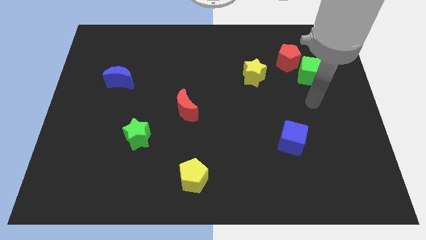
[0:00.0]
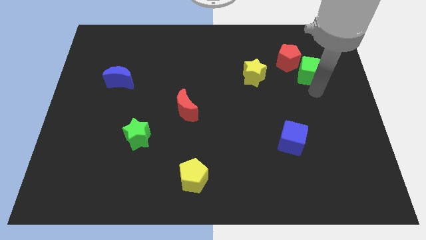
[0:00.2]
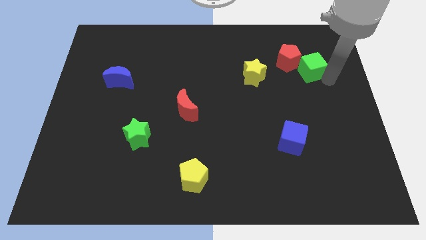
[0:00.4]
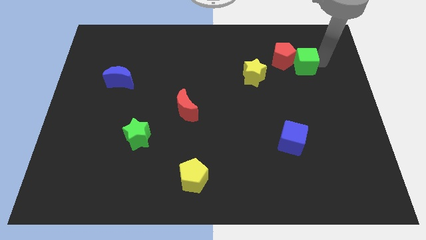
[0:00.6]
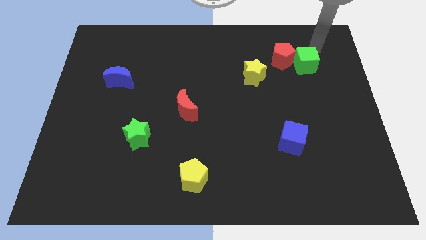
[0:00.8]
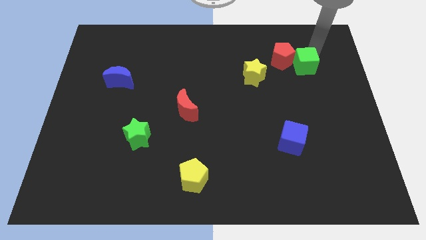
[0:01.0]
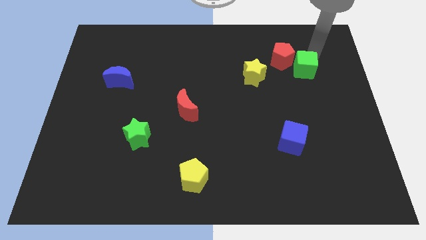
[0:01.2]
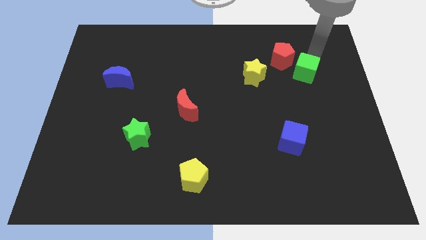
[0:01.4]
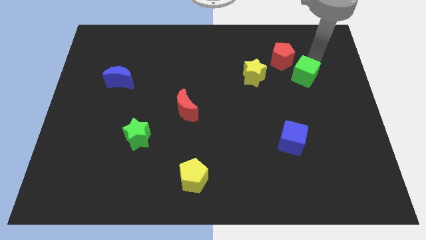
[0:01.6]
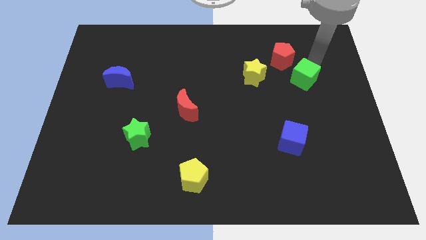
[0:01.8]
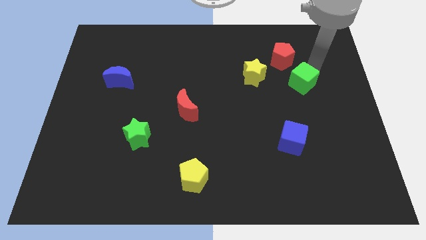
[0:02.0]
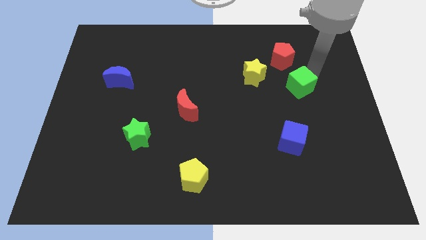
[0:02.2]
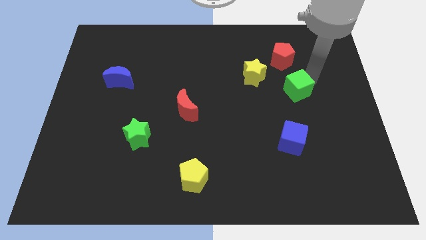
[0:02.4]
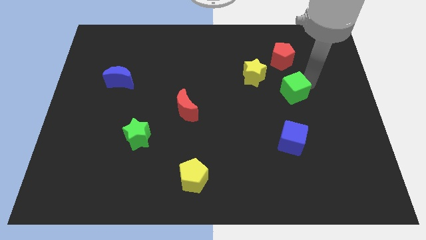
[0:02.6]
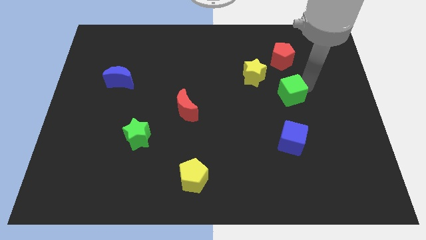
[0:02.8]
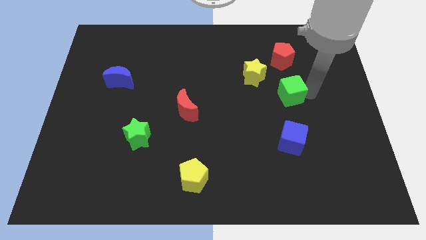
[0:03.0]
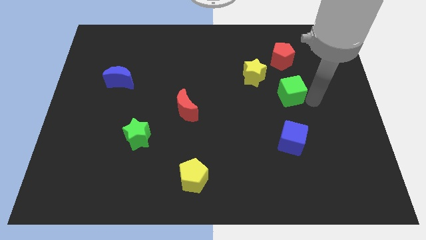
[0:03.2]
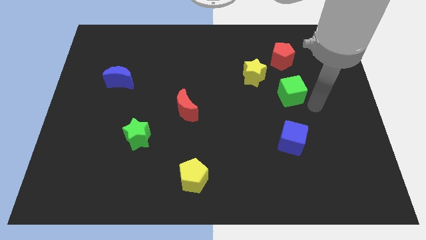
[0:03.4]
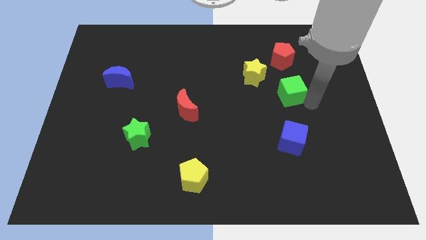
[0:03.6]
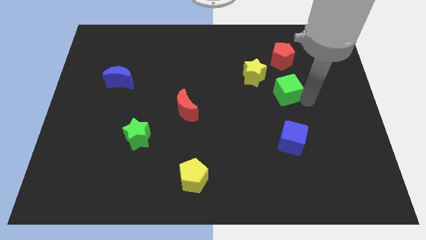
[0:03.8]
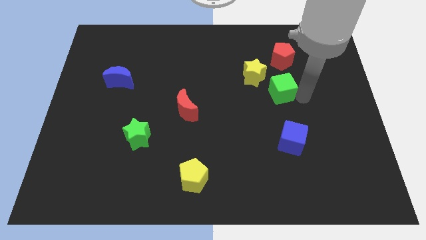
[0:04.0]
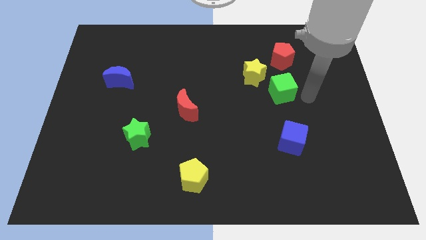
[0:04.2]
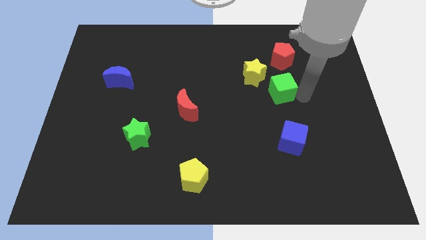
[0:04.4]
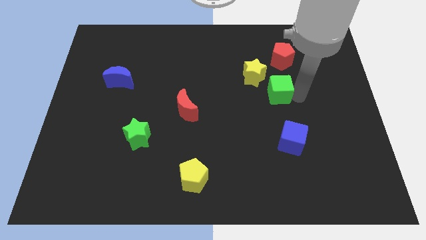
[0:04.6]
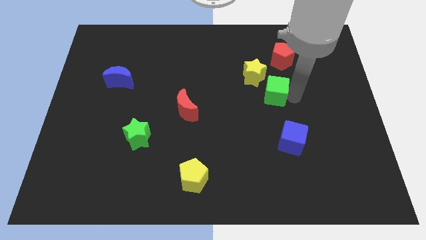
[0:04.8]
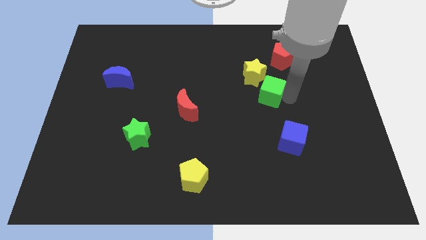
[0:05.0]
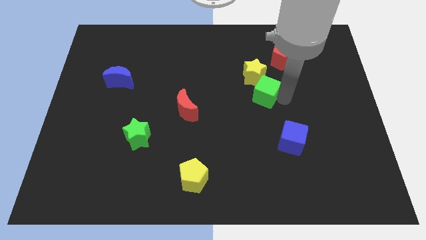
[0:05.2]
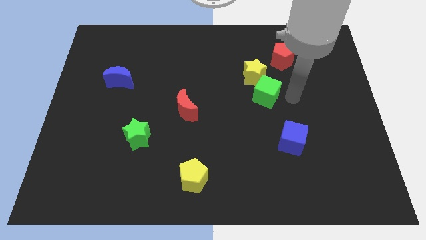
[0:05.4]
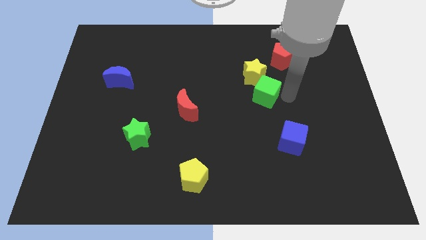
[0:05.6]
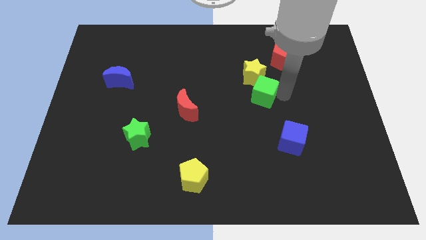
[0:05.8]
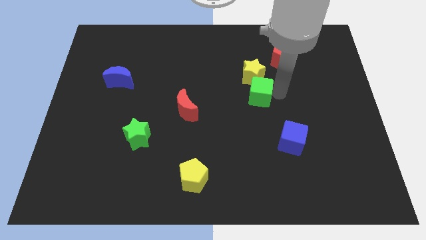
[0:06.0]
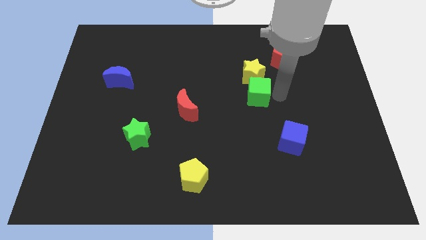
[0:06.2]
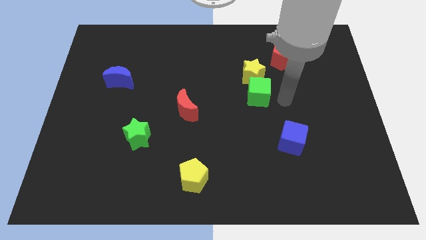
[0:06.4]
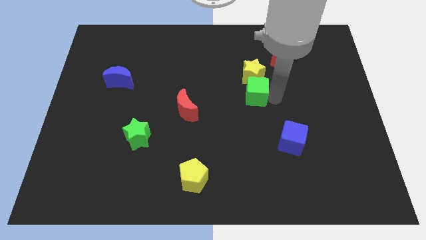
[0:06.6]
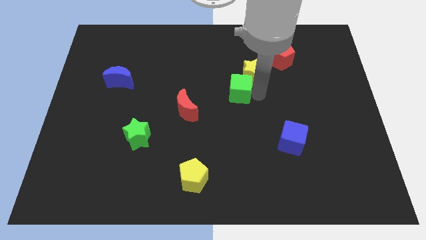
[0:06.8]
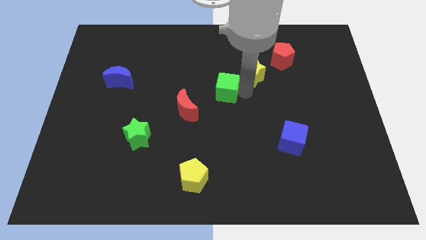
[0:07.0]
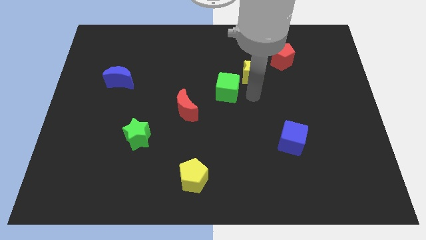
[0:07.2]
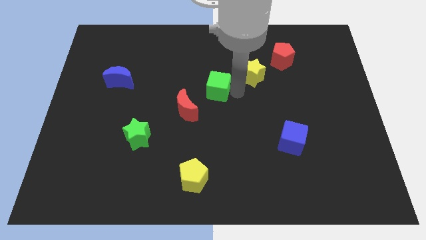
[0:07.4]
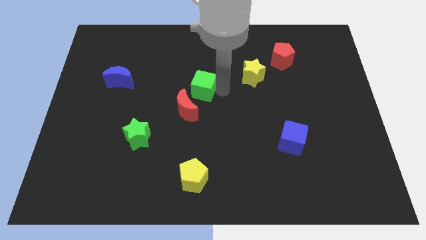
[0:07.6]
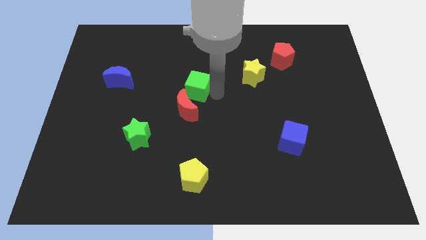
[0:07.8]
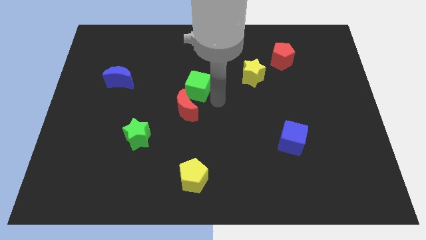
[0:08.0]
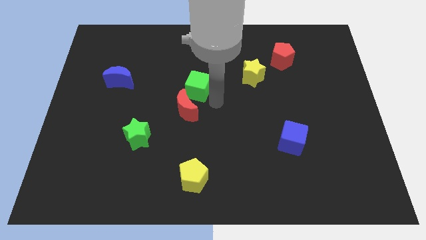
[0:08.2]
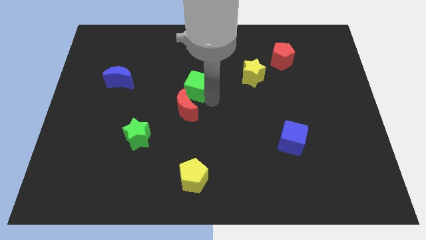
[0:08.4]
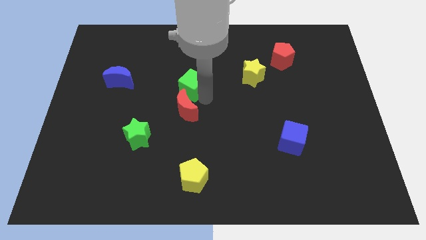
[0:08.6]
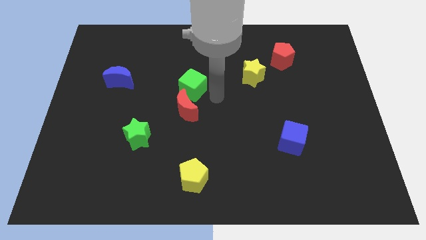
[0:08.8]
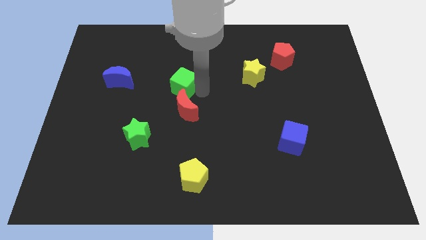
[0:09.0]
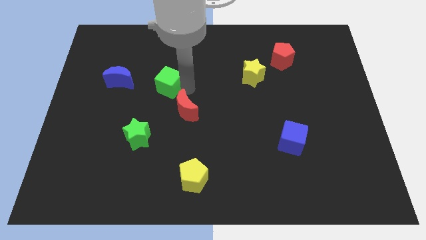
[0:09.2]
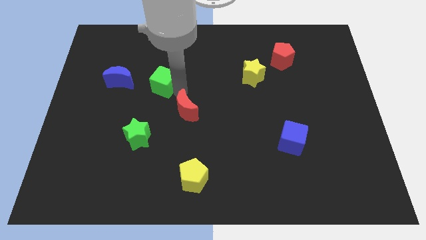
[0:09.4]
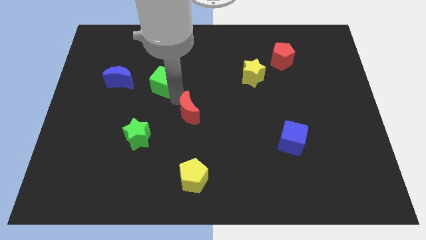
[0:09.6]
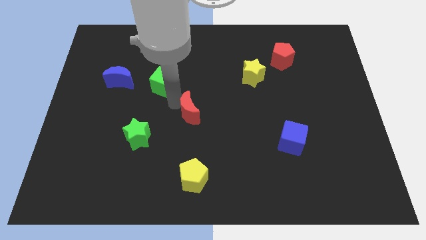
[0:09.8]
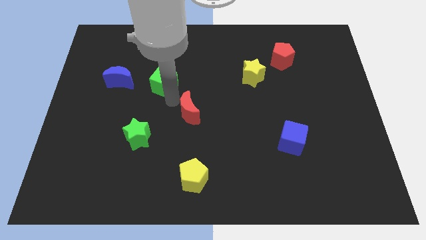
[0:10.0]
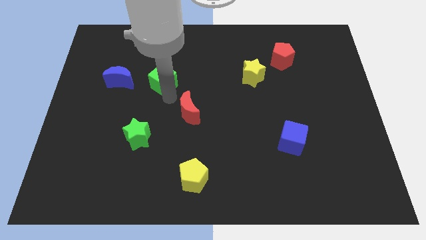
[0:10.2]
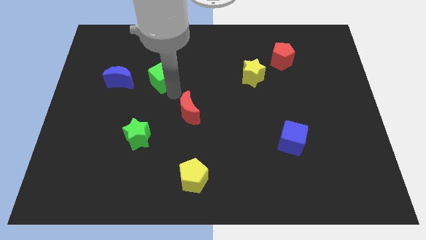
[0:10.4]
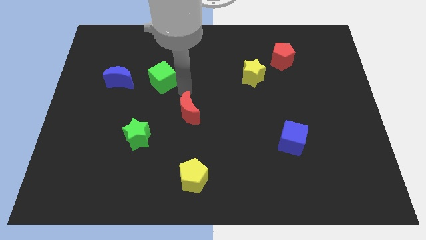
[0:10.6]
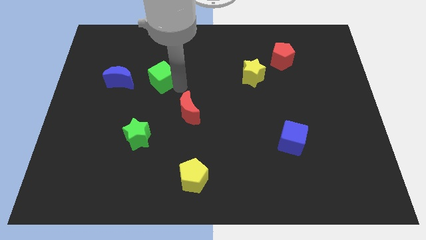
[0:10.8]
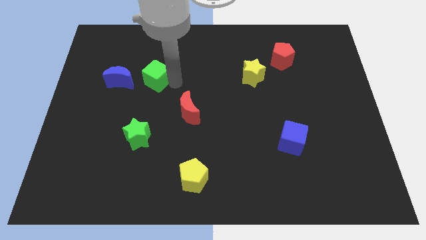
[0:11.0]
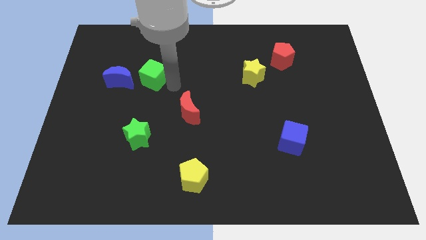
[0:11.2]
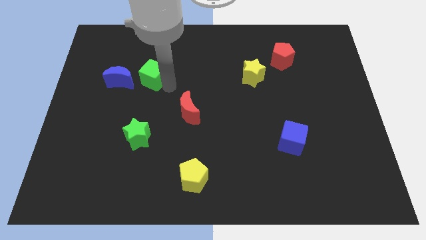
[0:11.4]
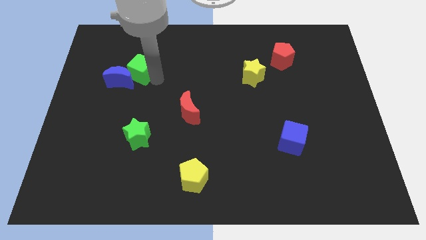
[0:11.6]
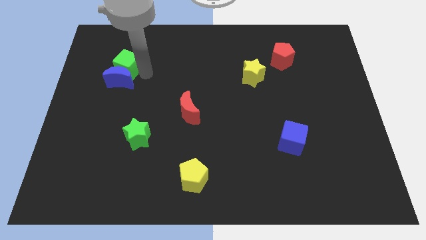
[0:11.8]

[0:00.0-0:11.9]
slide the green cube diagonally up and to the left of the blue moon

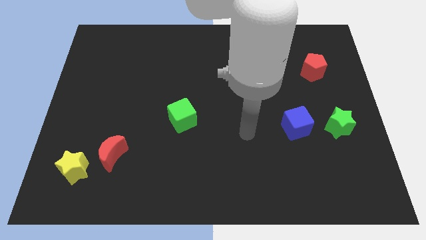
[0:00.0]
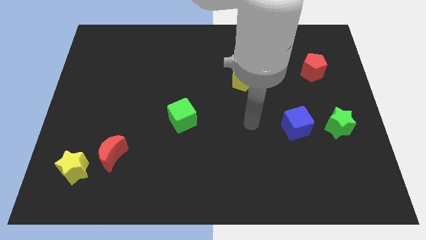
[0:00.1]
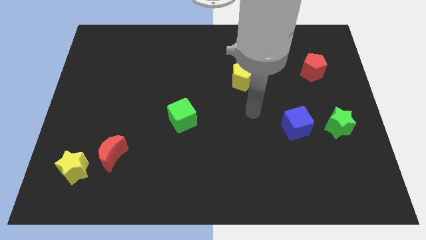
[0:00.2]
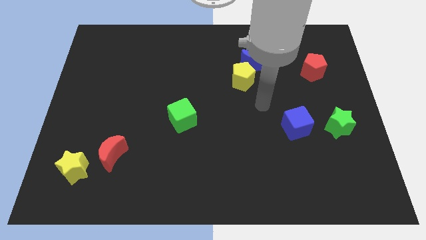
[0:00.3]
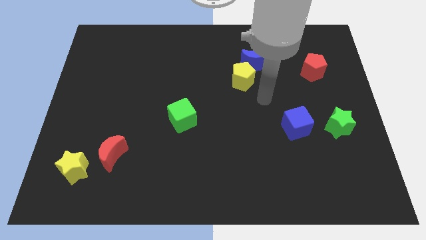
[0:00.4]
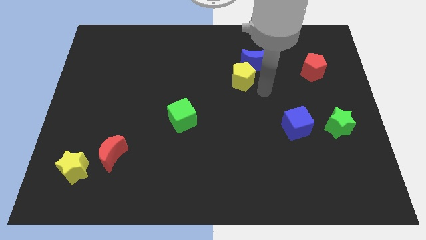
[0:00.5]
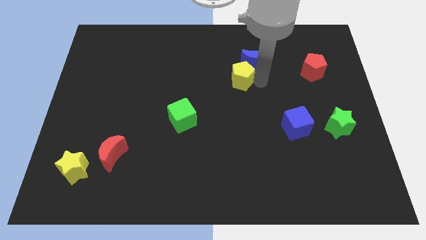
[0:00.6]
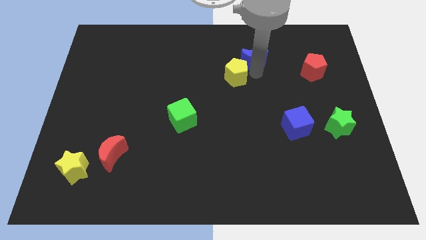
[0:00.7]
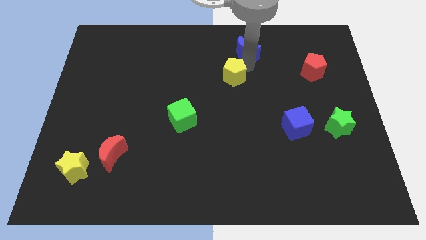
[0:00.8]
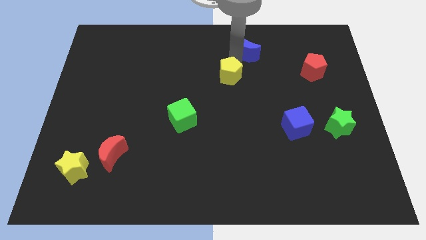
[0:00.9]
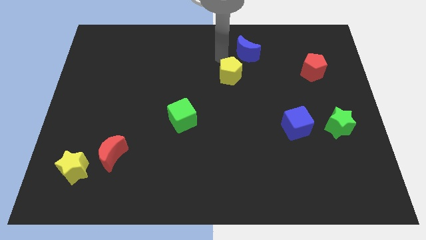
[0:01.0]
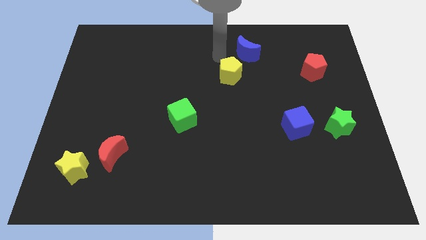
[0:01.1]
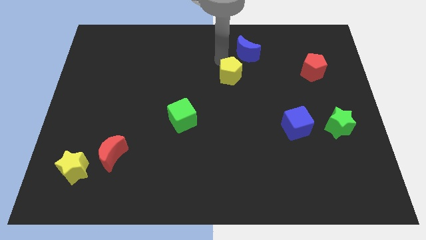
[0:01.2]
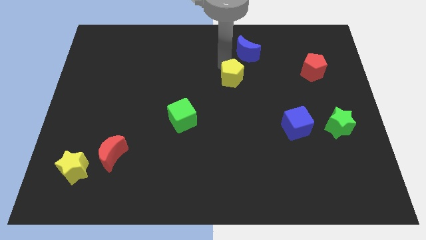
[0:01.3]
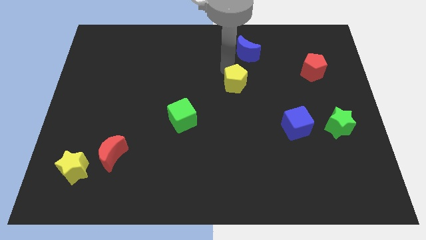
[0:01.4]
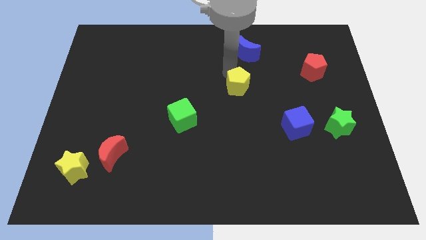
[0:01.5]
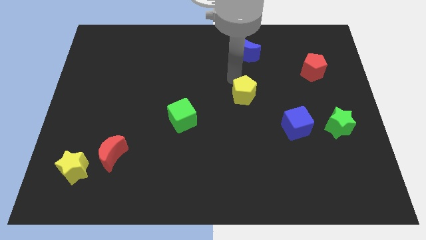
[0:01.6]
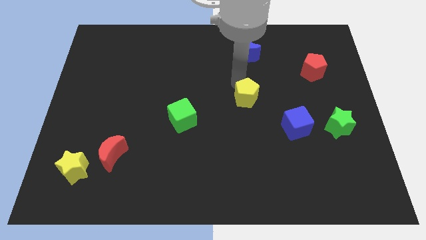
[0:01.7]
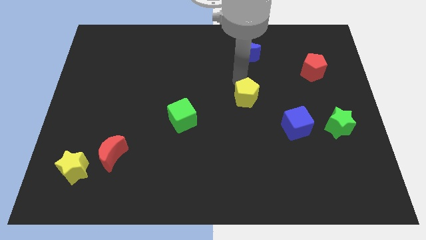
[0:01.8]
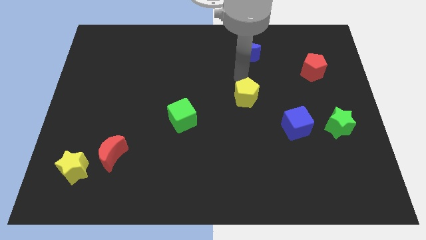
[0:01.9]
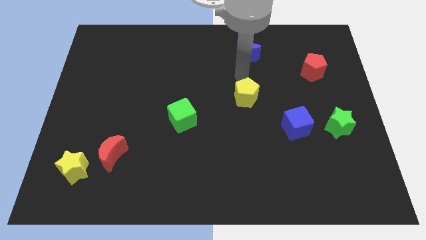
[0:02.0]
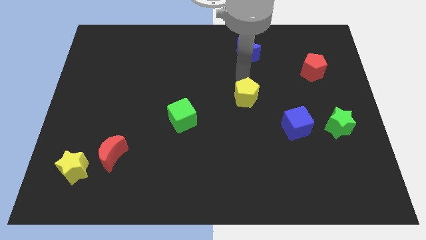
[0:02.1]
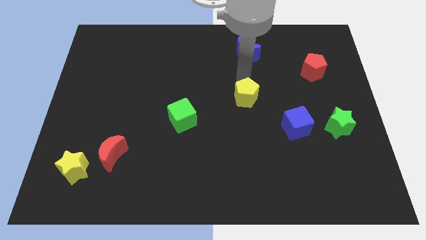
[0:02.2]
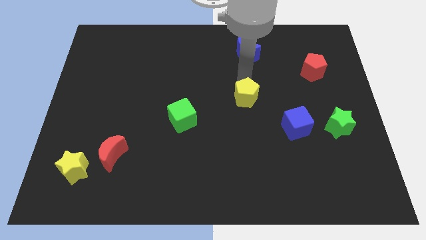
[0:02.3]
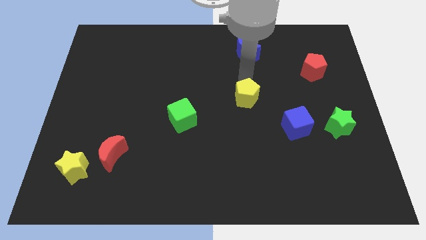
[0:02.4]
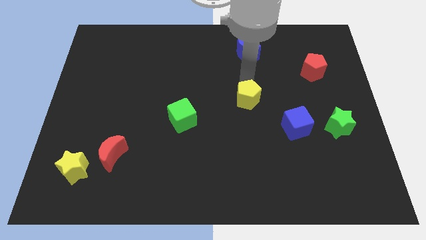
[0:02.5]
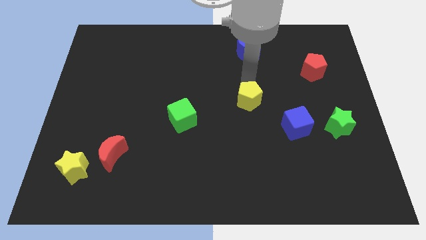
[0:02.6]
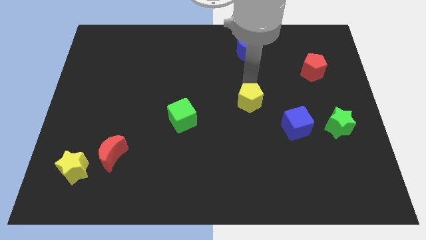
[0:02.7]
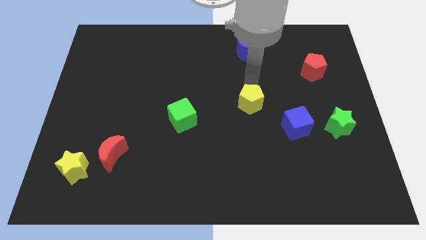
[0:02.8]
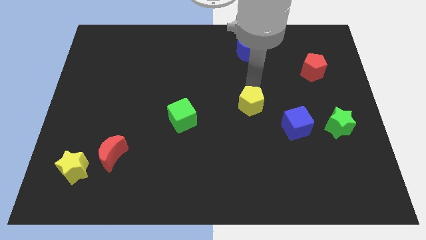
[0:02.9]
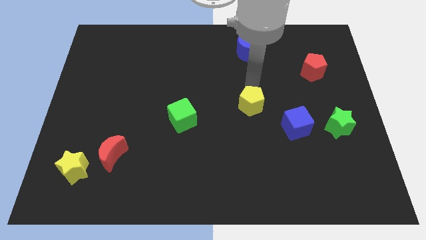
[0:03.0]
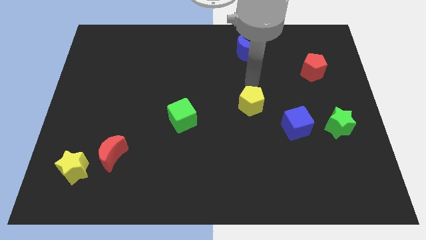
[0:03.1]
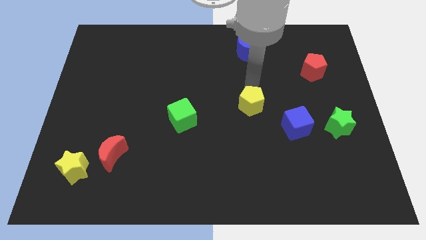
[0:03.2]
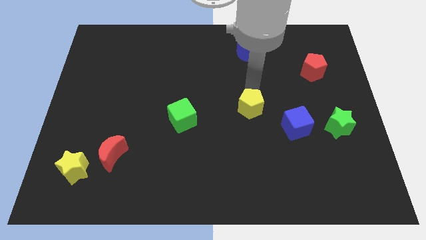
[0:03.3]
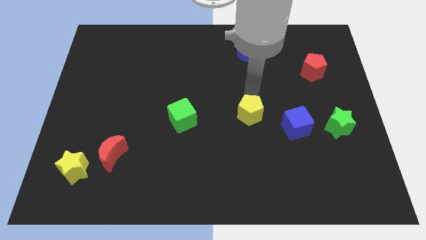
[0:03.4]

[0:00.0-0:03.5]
push the yellow pentagon just left of the blue cube
